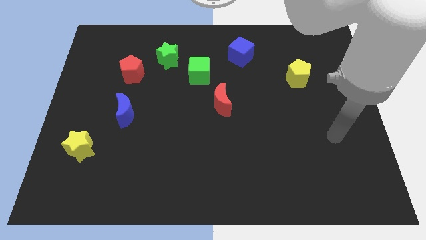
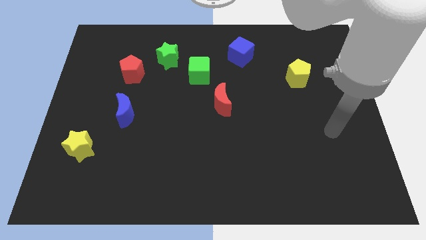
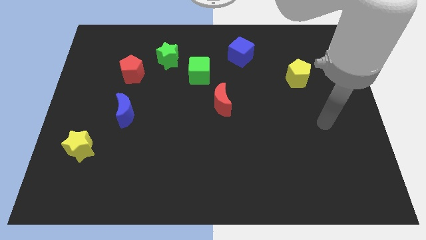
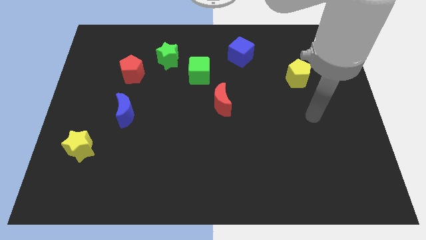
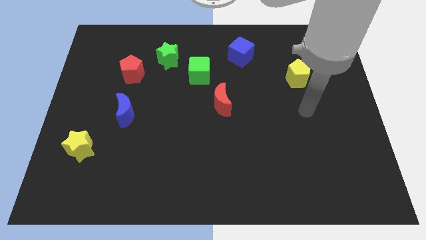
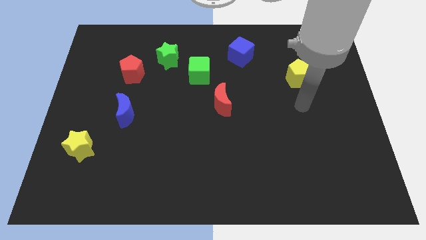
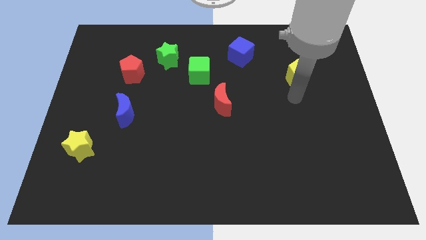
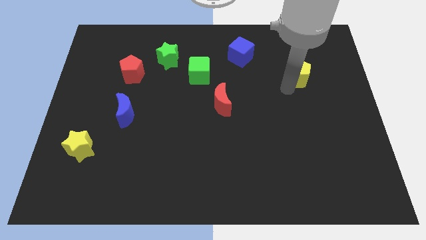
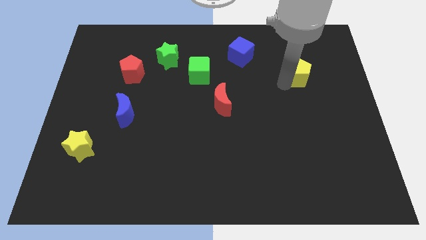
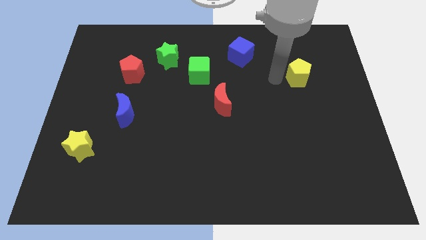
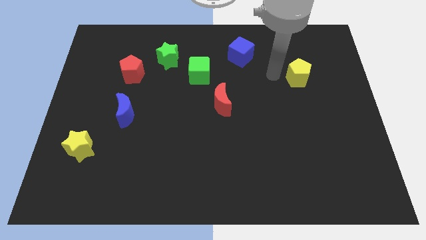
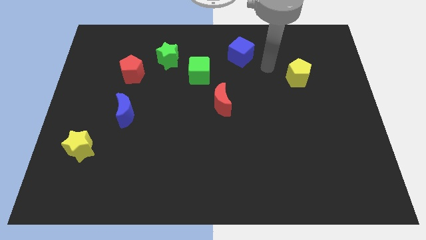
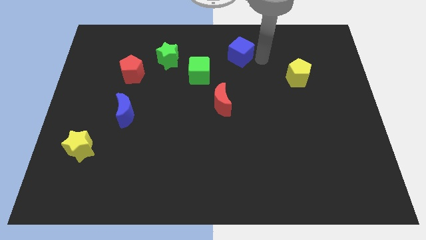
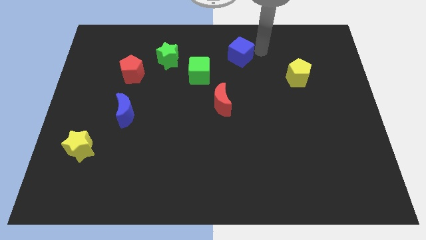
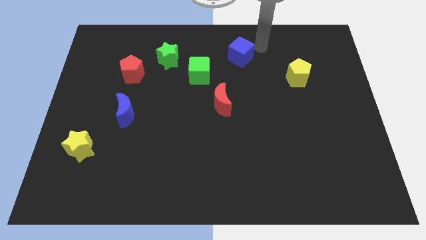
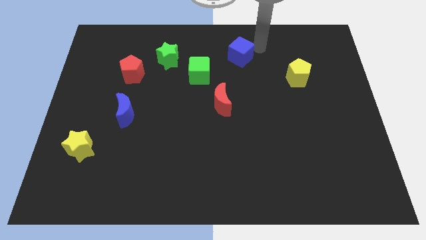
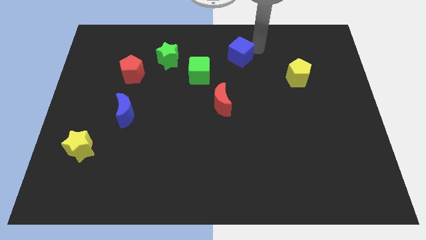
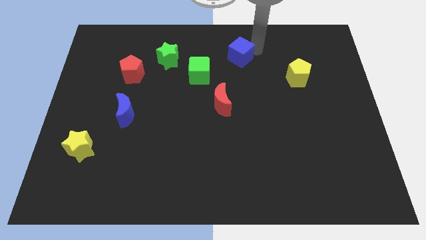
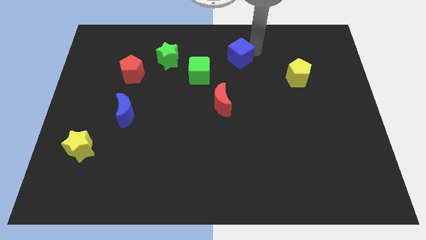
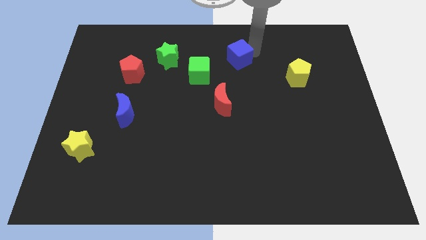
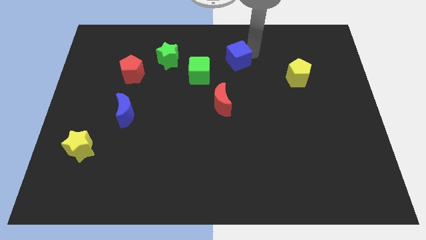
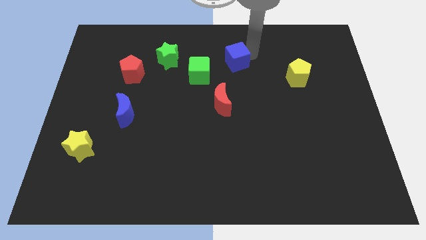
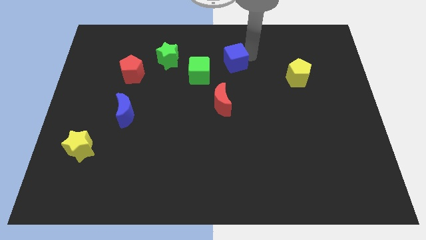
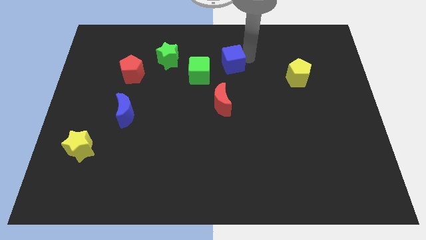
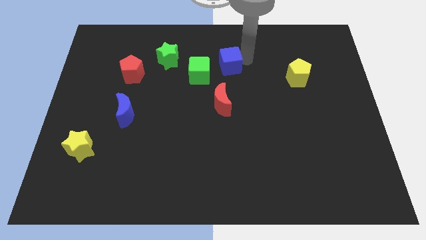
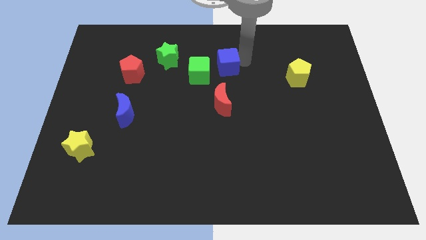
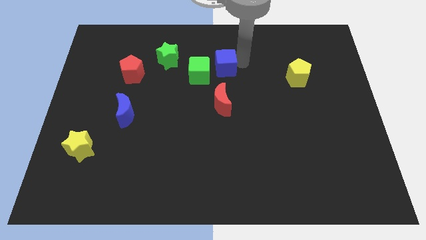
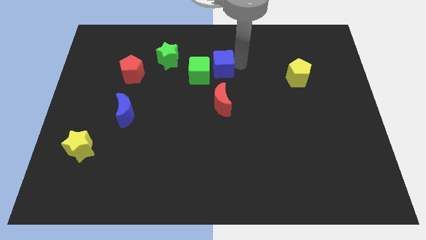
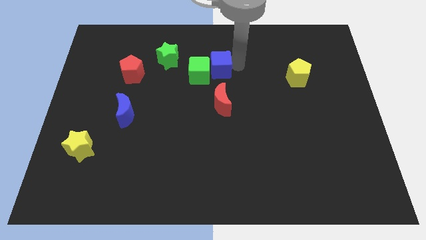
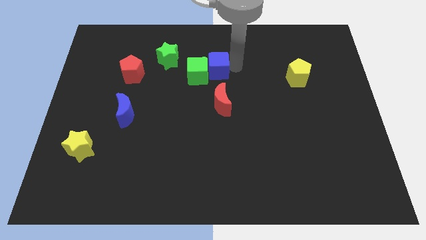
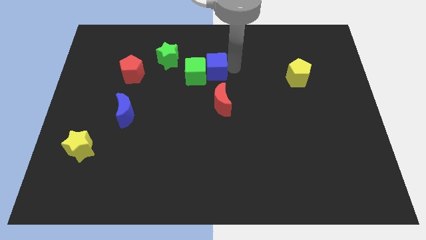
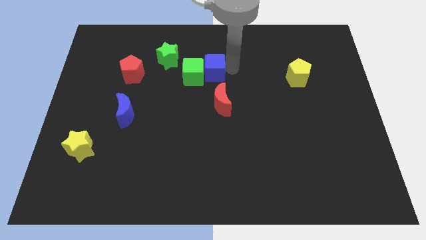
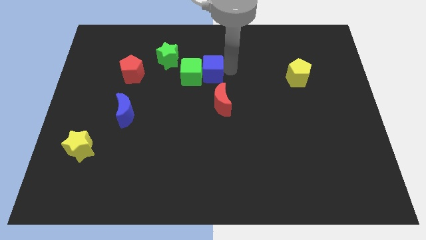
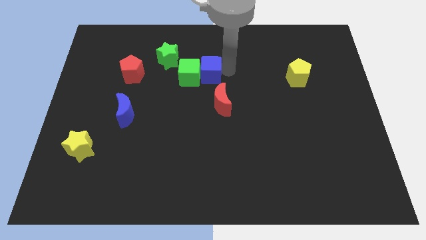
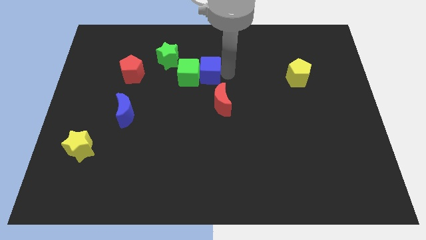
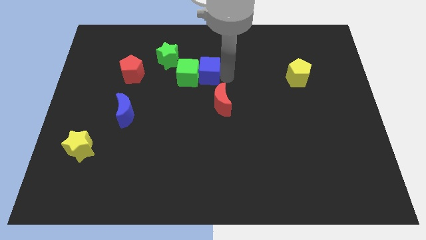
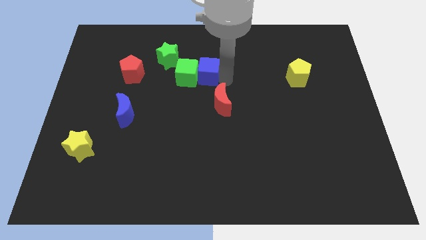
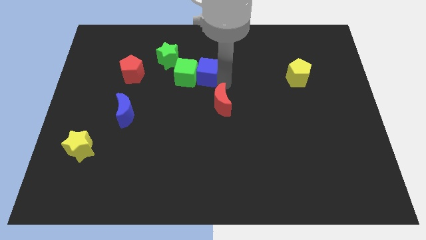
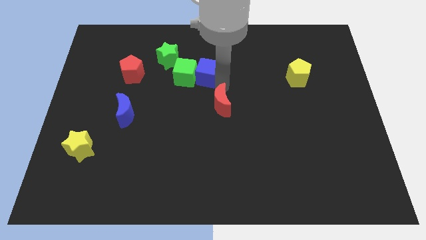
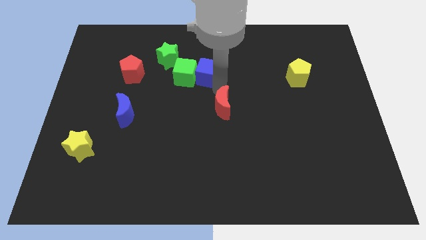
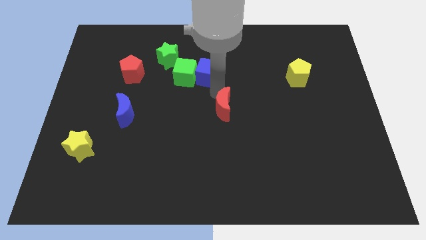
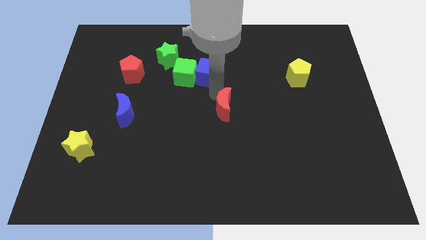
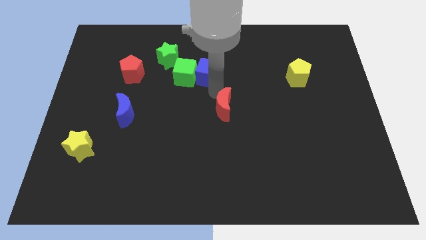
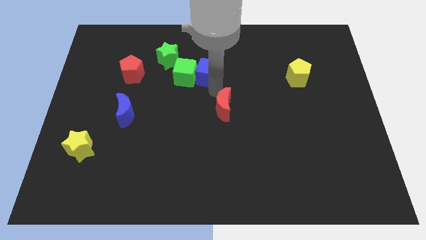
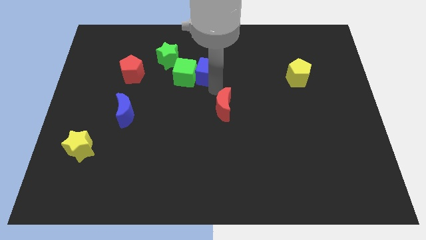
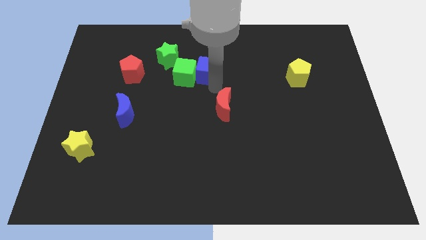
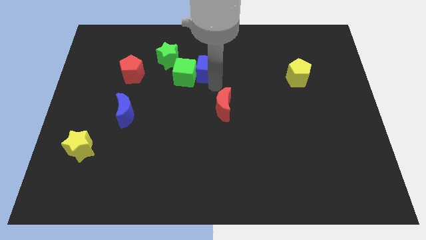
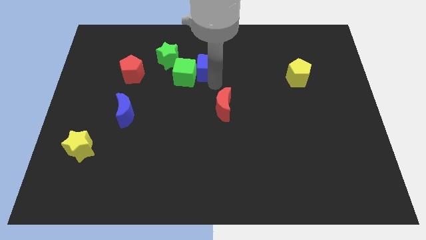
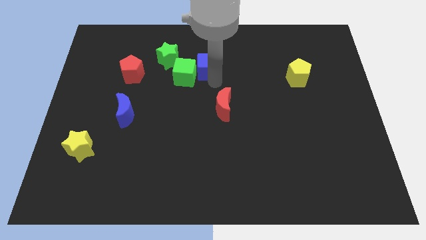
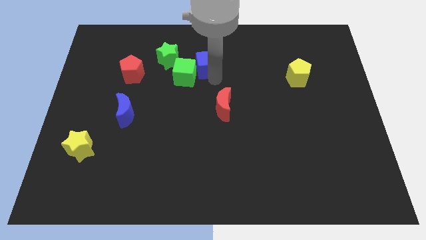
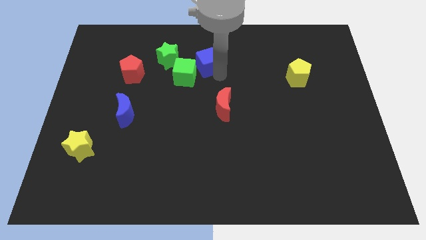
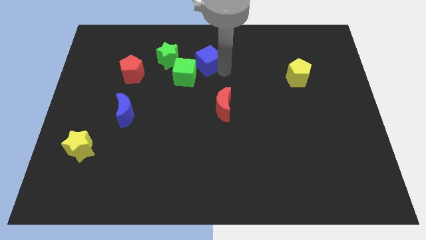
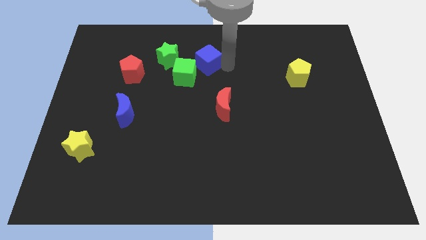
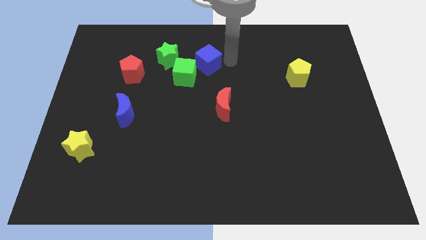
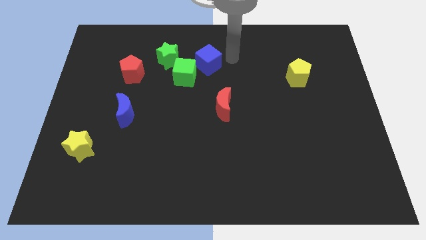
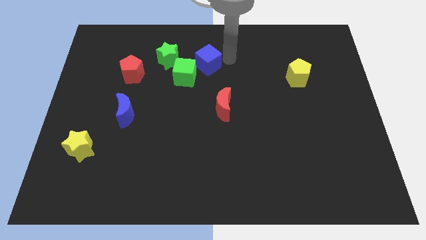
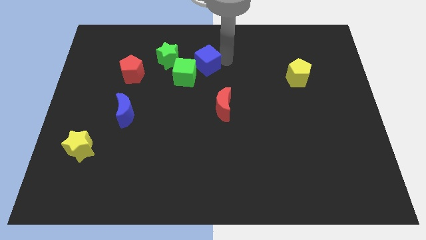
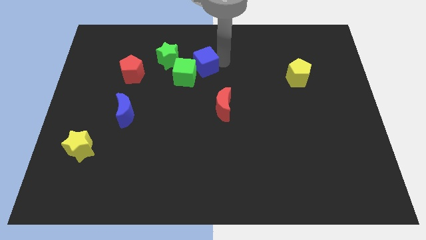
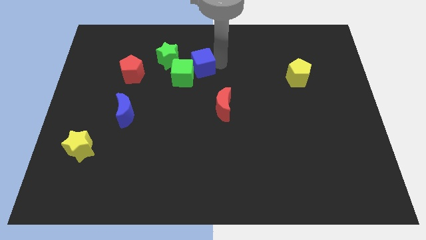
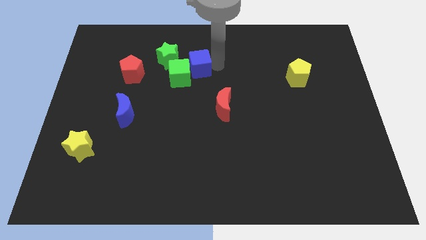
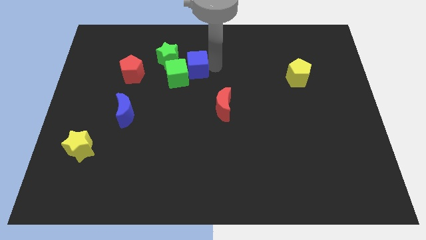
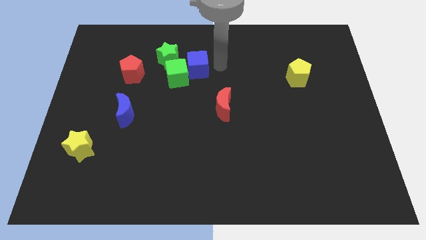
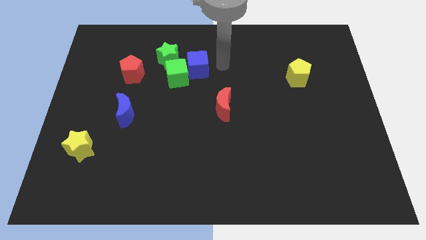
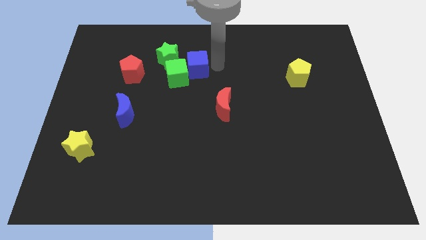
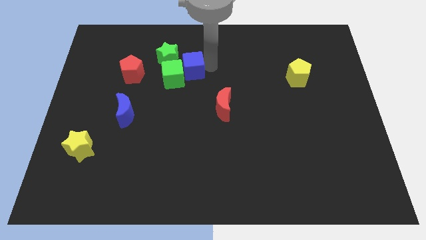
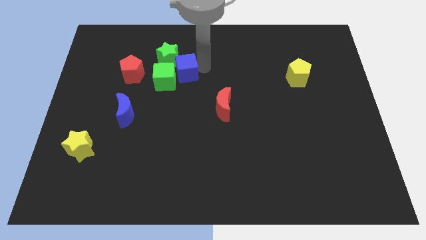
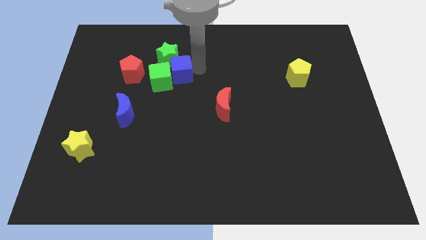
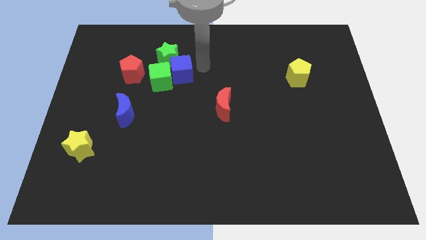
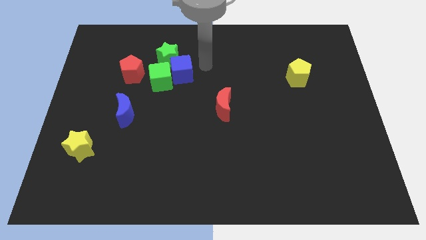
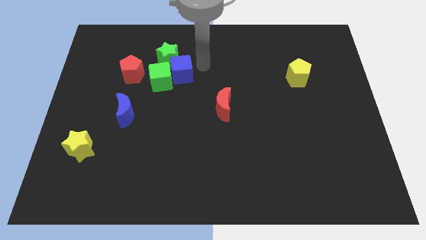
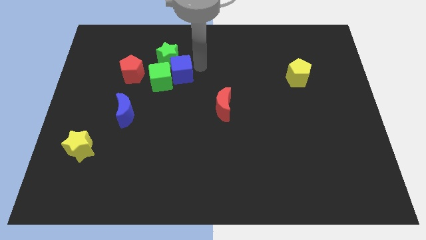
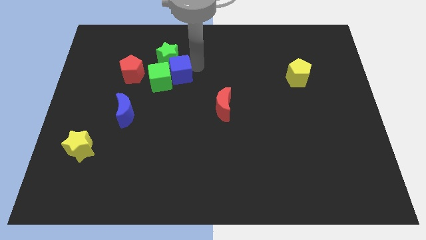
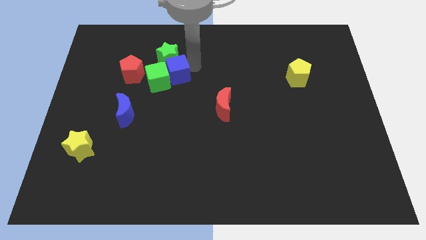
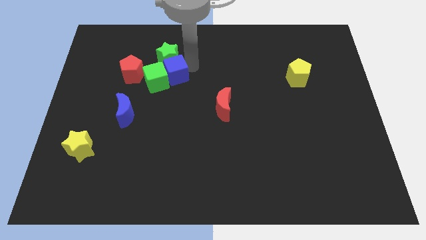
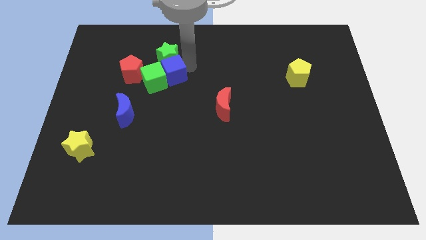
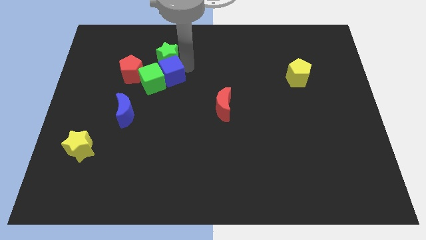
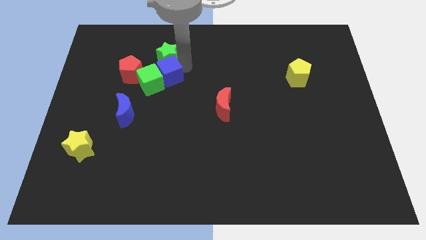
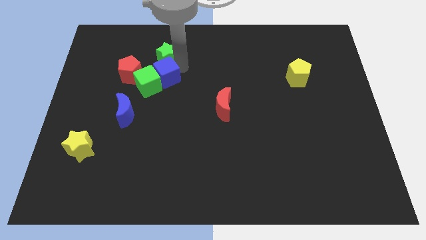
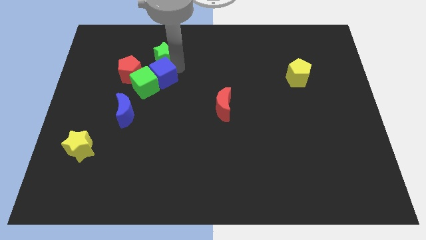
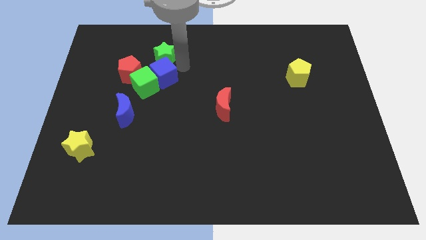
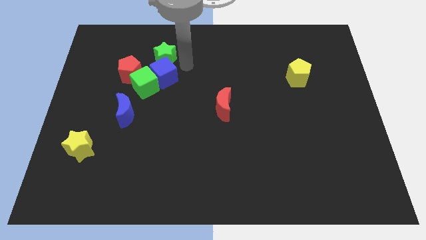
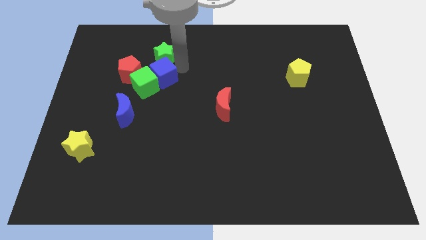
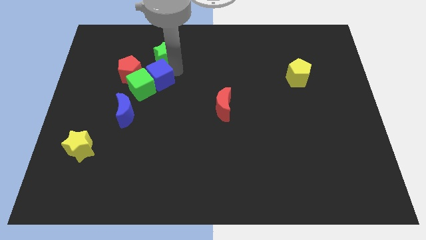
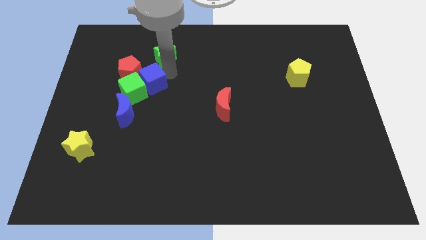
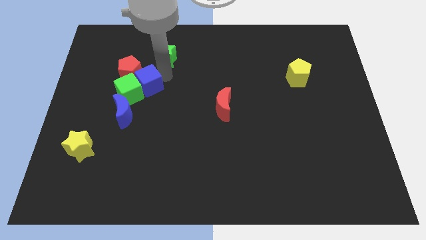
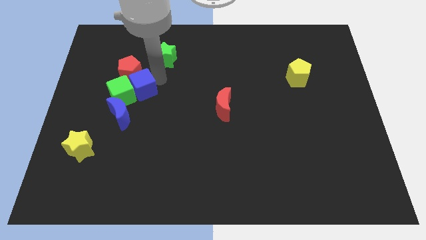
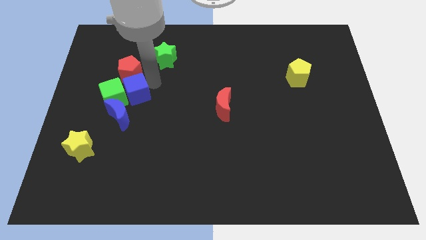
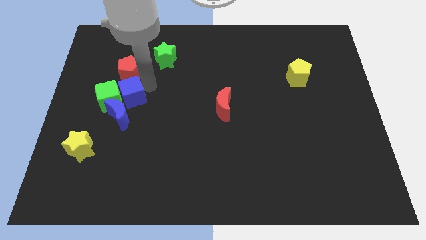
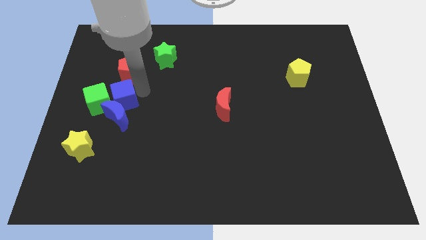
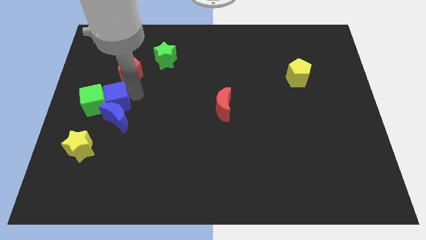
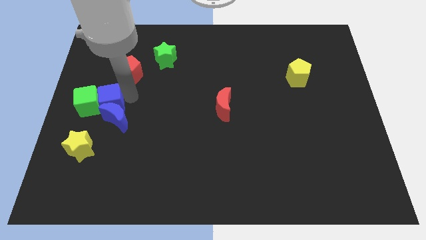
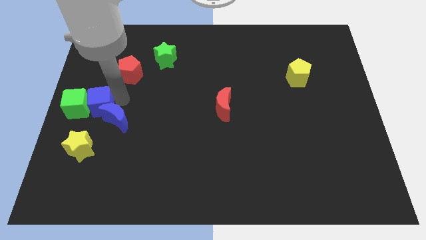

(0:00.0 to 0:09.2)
push the blue cube to the center left
